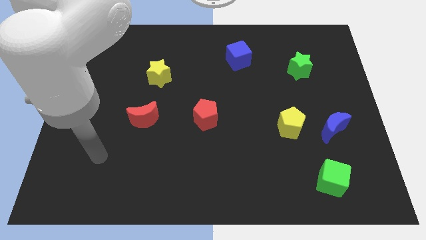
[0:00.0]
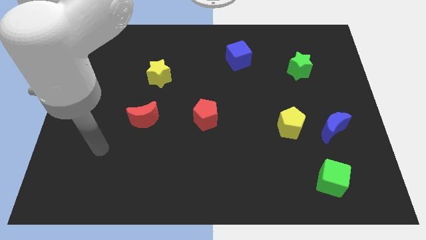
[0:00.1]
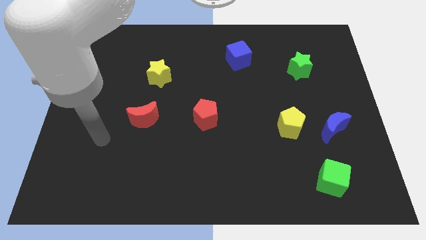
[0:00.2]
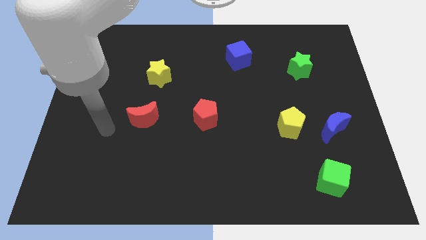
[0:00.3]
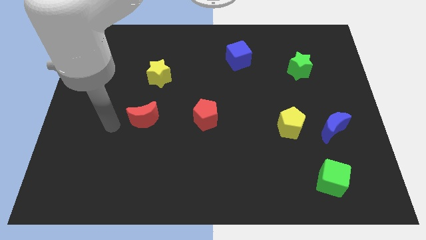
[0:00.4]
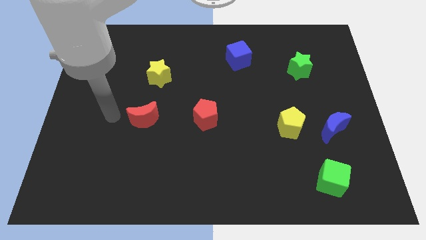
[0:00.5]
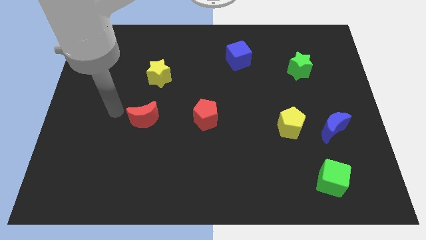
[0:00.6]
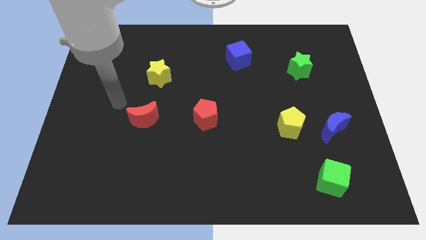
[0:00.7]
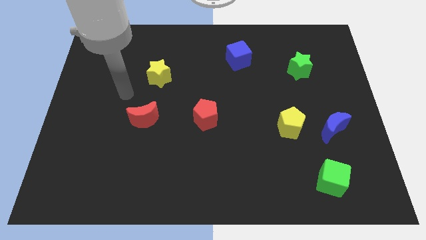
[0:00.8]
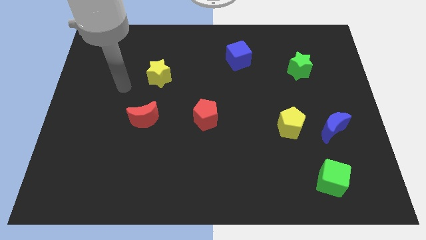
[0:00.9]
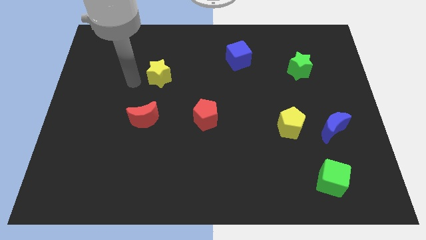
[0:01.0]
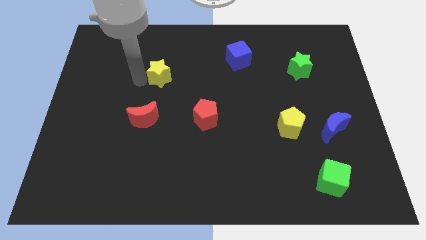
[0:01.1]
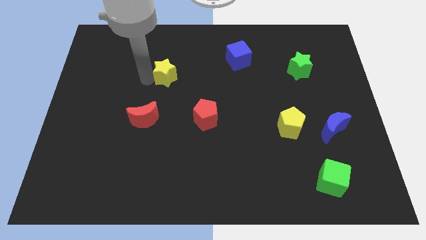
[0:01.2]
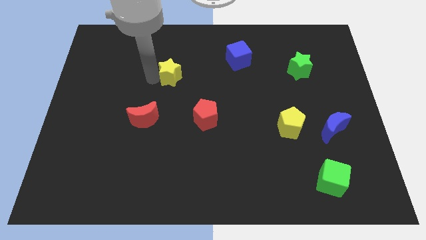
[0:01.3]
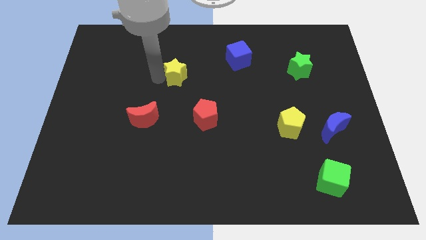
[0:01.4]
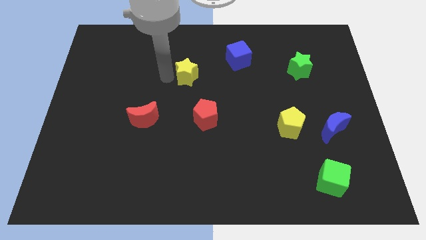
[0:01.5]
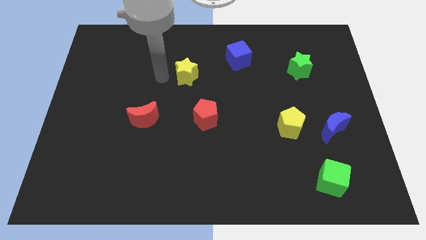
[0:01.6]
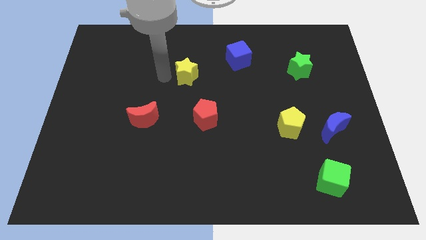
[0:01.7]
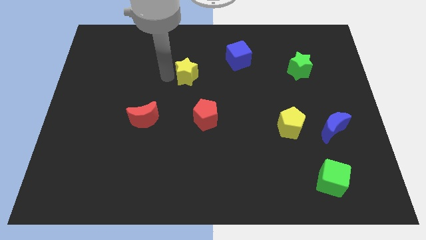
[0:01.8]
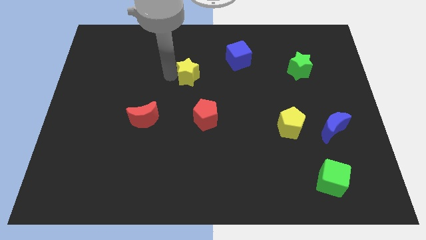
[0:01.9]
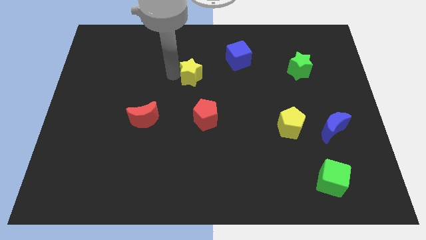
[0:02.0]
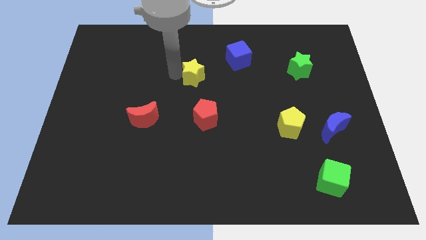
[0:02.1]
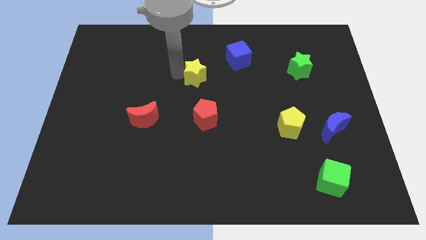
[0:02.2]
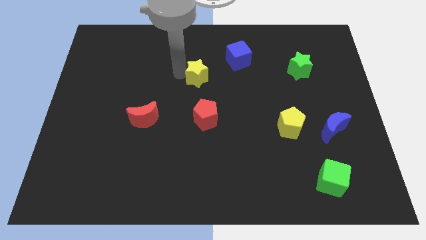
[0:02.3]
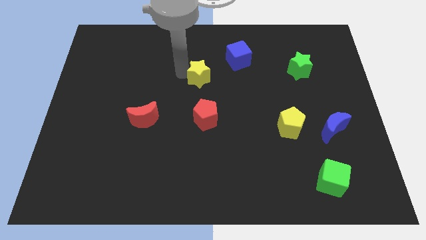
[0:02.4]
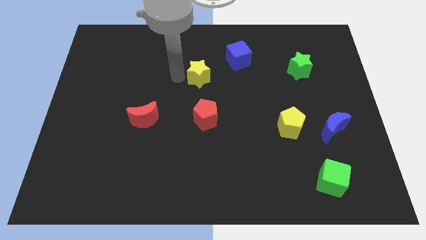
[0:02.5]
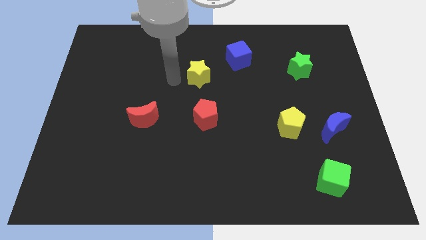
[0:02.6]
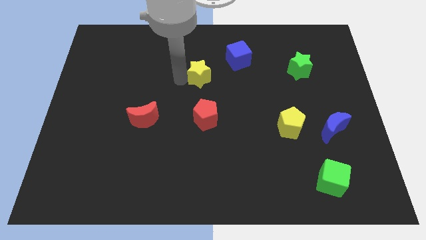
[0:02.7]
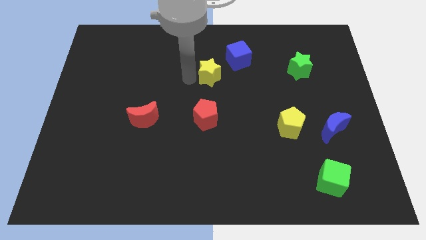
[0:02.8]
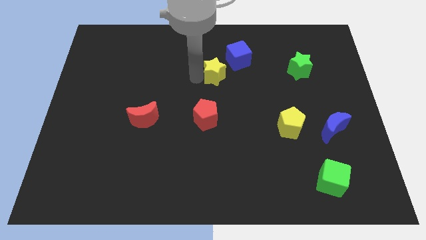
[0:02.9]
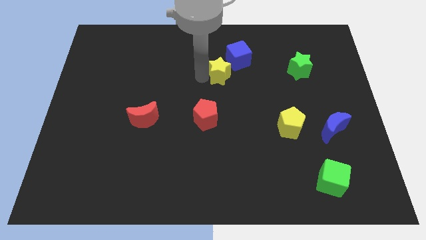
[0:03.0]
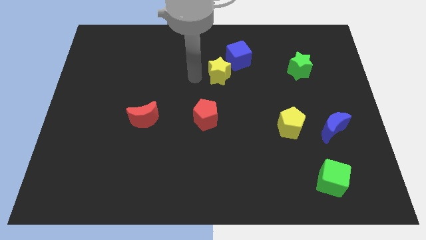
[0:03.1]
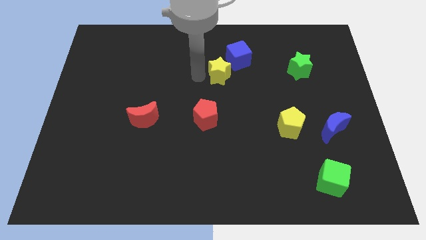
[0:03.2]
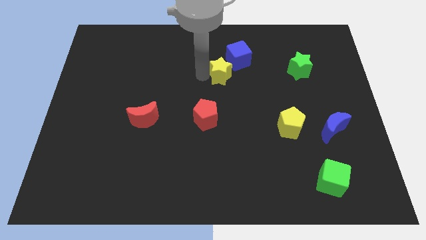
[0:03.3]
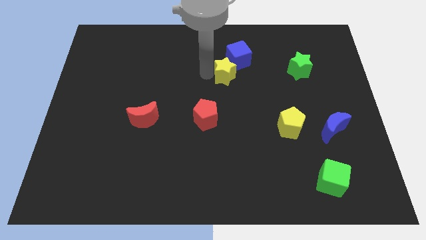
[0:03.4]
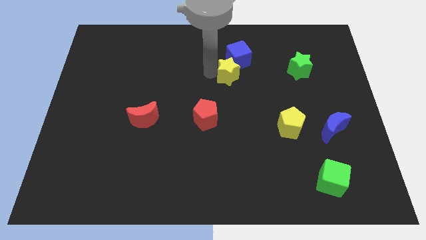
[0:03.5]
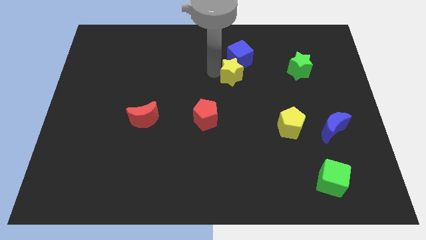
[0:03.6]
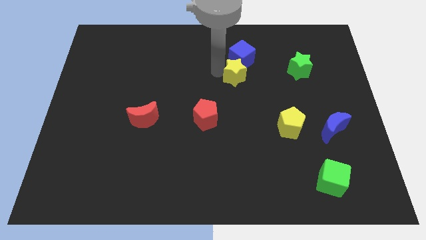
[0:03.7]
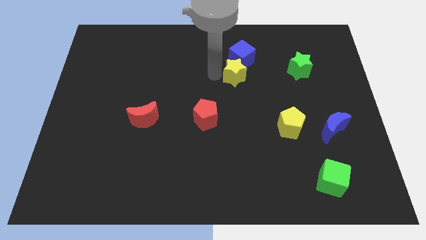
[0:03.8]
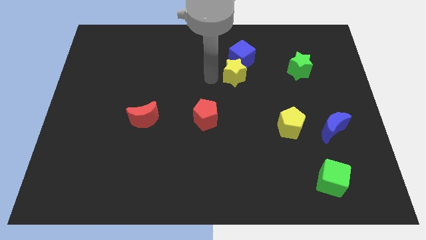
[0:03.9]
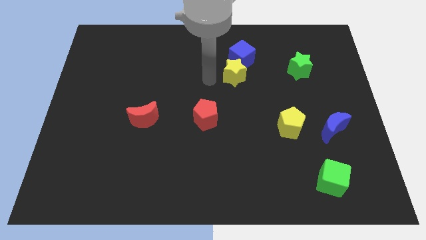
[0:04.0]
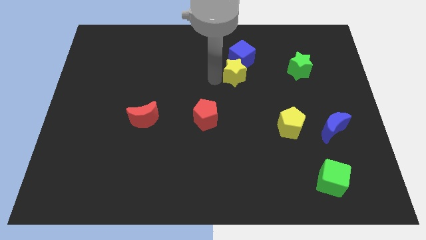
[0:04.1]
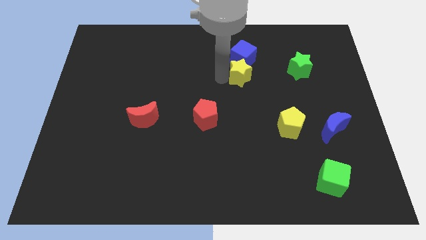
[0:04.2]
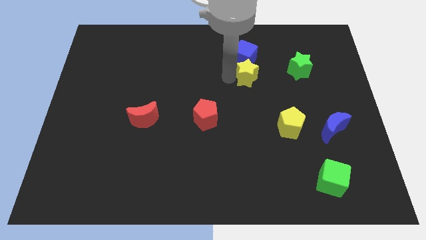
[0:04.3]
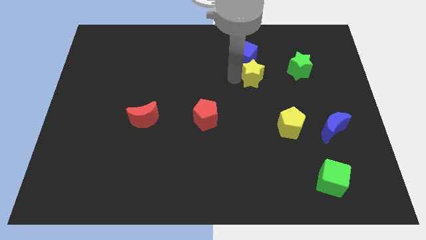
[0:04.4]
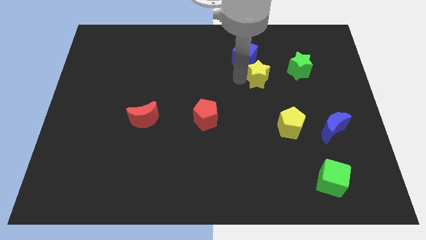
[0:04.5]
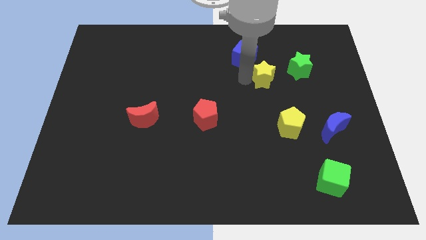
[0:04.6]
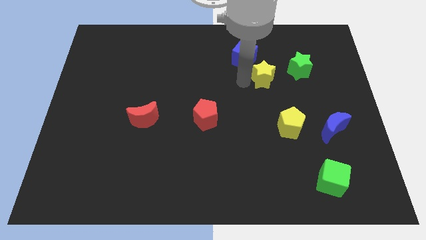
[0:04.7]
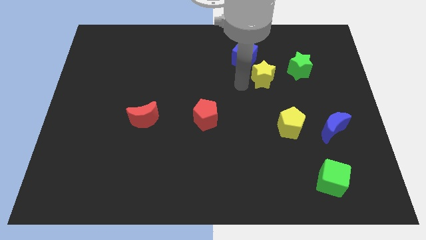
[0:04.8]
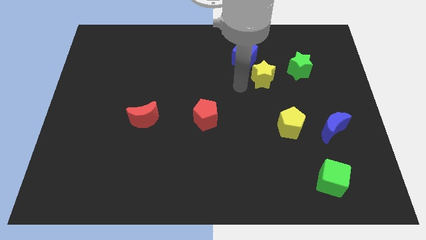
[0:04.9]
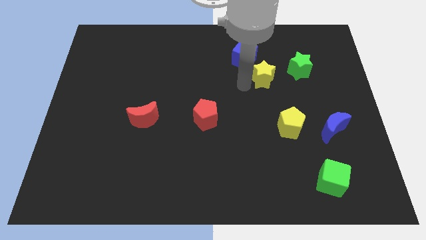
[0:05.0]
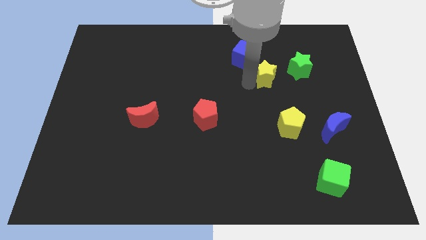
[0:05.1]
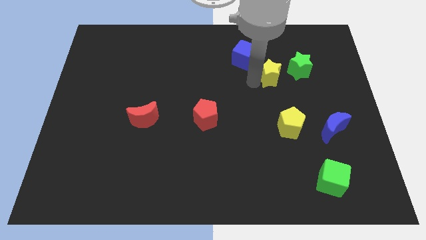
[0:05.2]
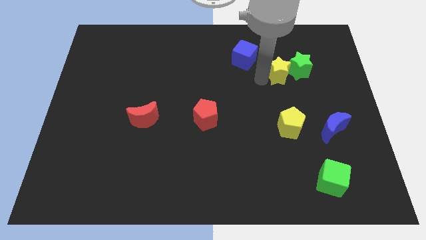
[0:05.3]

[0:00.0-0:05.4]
move the yellow star close to the green star

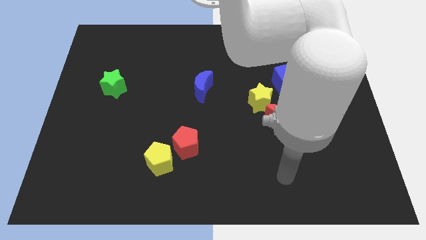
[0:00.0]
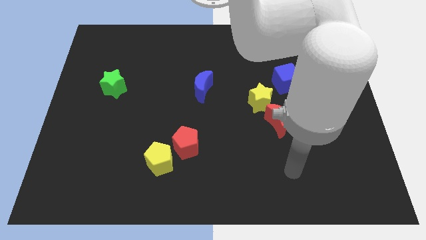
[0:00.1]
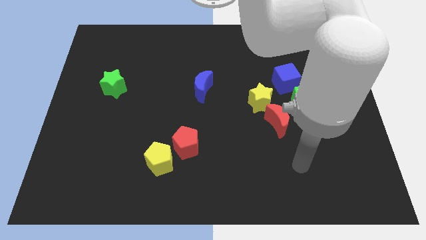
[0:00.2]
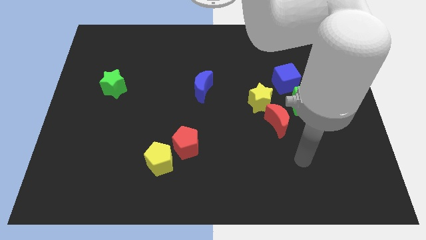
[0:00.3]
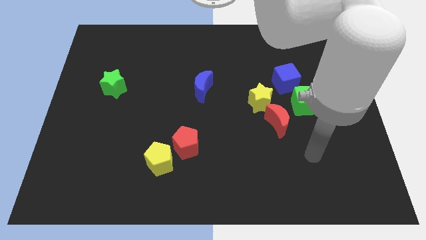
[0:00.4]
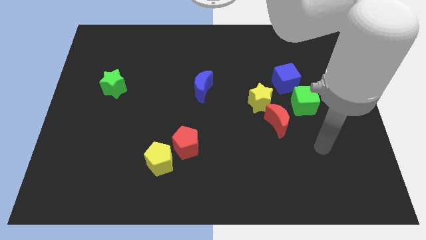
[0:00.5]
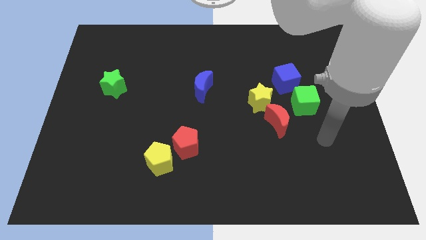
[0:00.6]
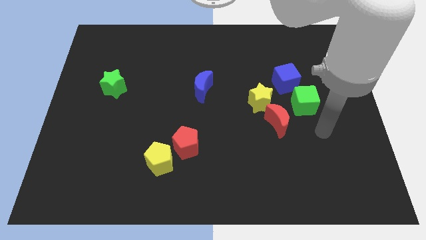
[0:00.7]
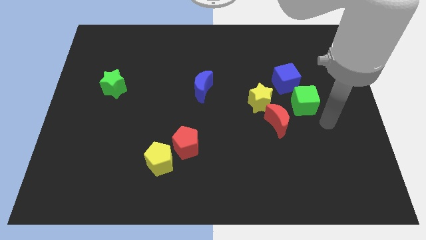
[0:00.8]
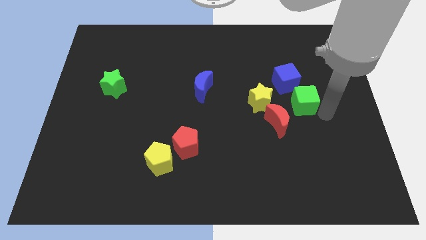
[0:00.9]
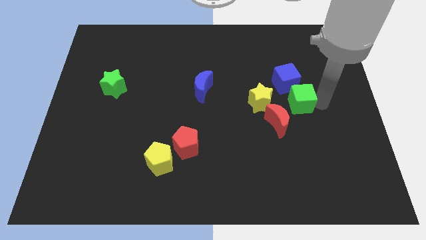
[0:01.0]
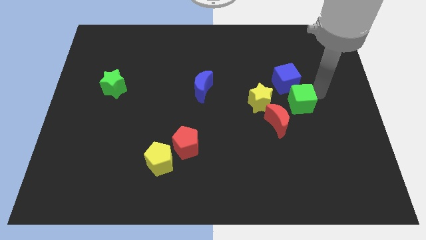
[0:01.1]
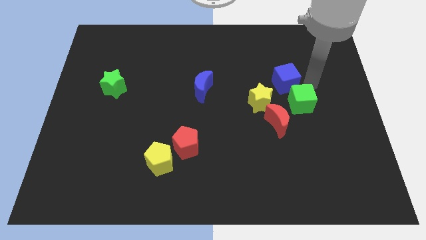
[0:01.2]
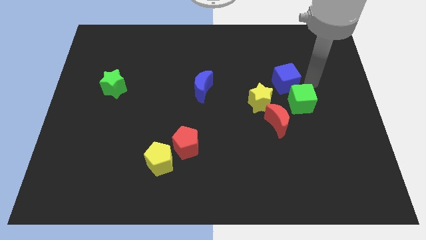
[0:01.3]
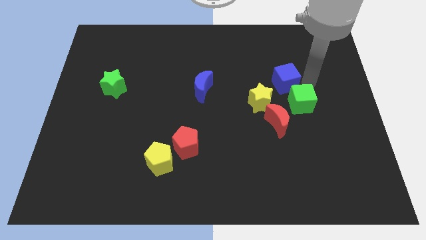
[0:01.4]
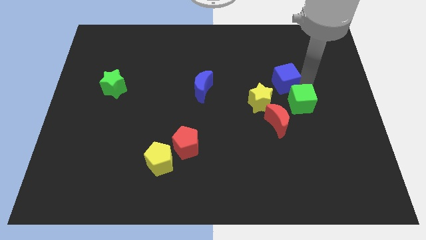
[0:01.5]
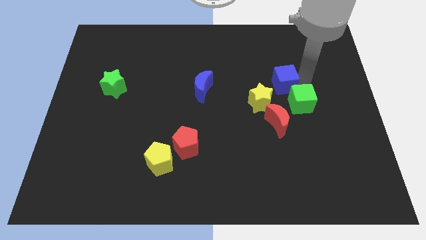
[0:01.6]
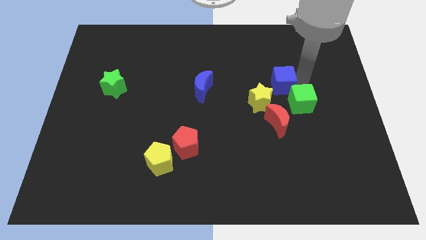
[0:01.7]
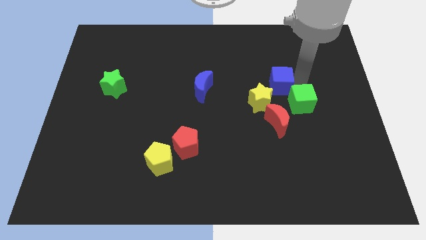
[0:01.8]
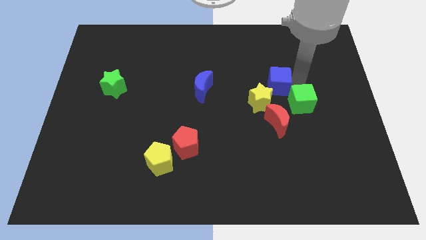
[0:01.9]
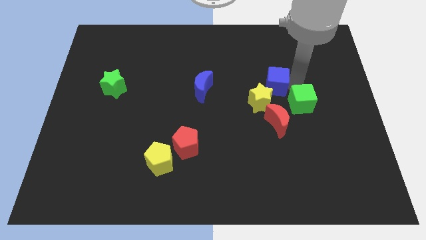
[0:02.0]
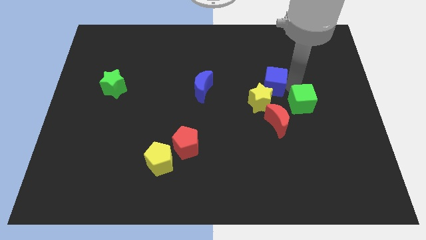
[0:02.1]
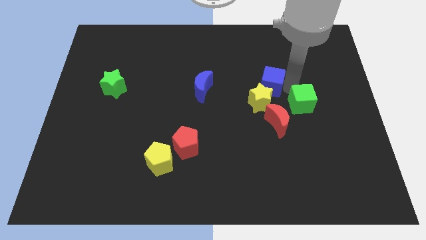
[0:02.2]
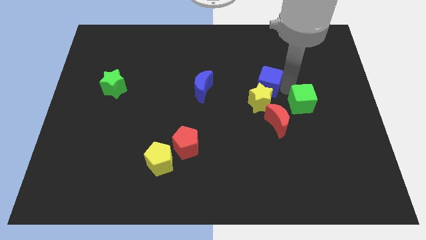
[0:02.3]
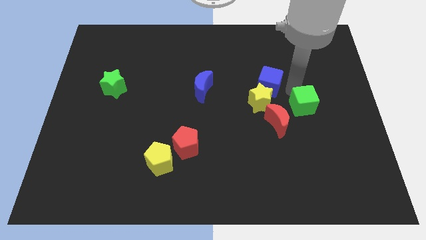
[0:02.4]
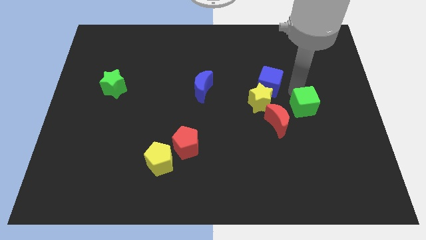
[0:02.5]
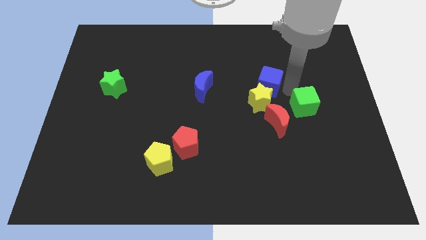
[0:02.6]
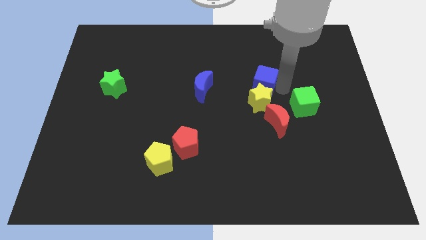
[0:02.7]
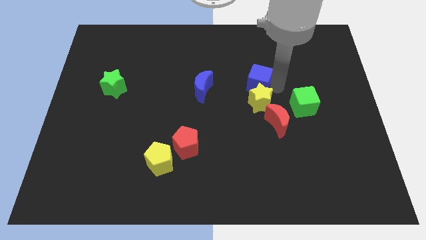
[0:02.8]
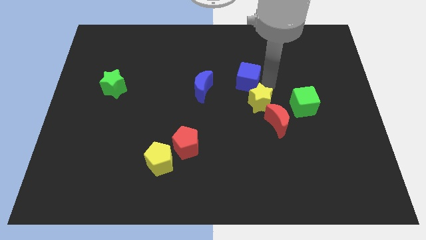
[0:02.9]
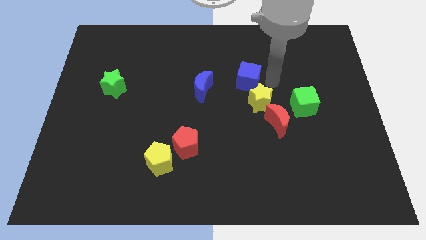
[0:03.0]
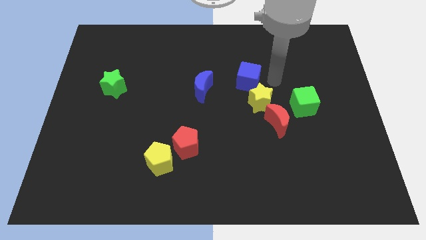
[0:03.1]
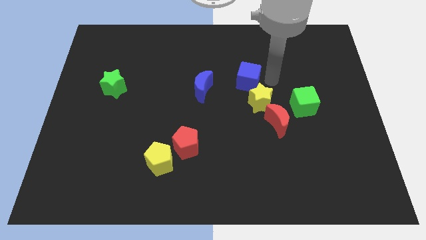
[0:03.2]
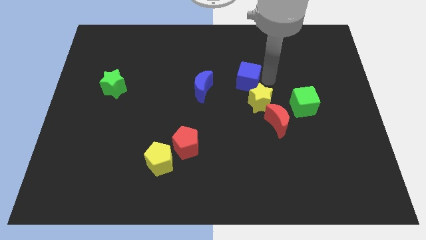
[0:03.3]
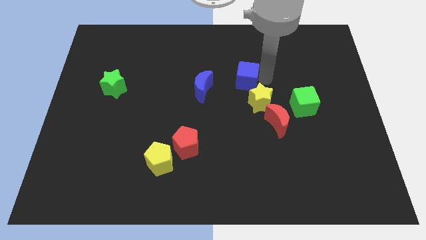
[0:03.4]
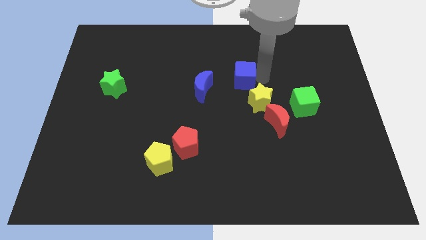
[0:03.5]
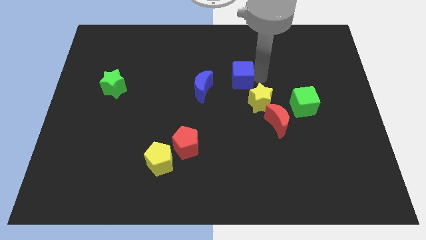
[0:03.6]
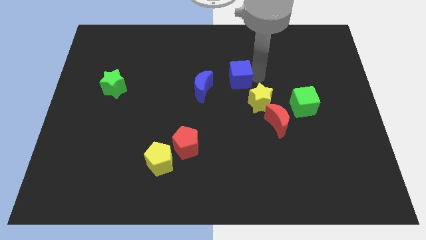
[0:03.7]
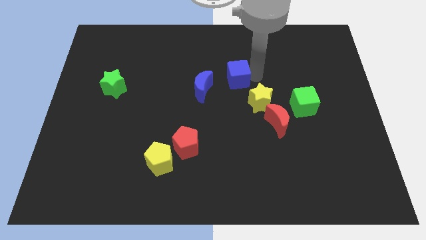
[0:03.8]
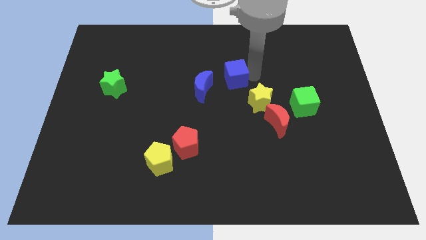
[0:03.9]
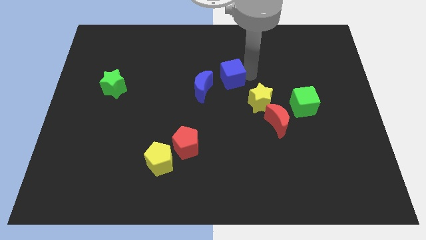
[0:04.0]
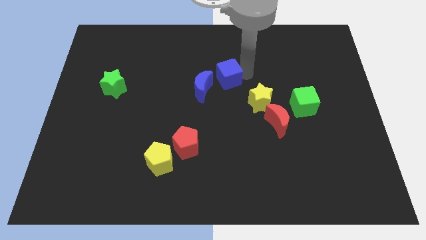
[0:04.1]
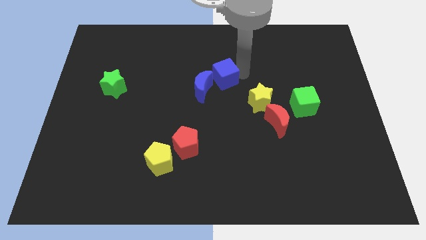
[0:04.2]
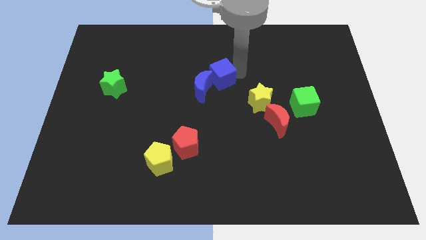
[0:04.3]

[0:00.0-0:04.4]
push the blue cube close to the blue moon
